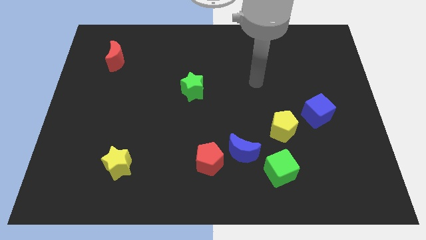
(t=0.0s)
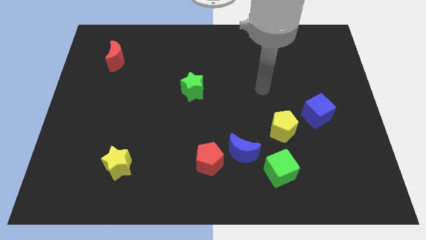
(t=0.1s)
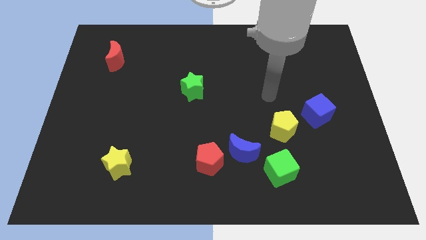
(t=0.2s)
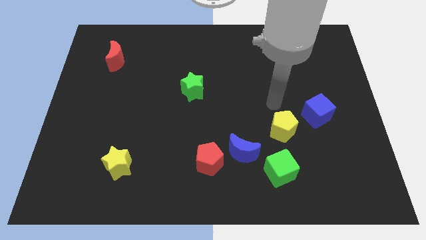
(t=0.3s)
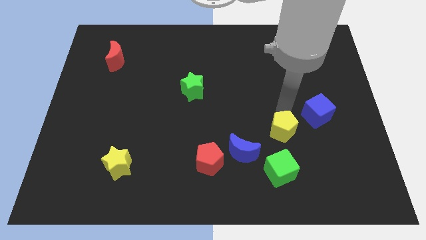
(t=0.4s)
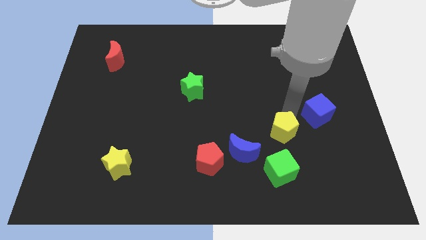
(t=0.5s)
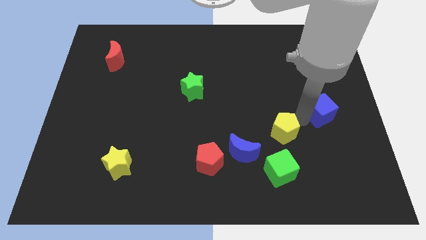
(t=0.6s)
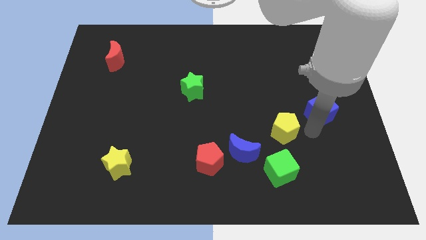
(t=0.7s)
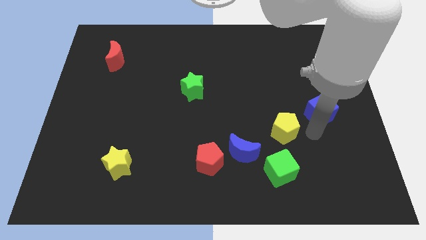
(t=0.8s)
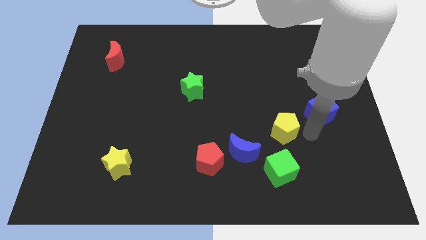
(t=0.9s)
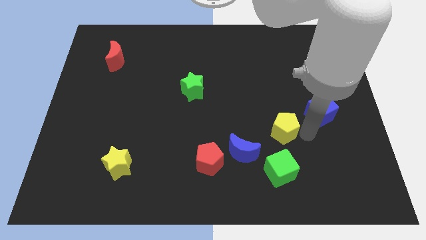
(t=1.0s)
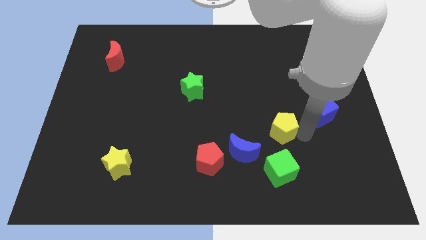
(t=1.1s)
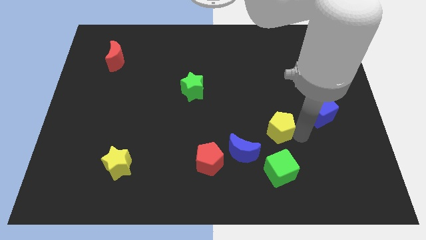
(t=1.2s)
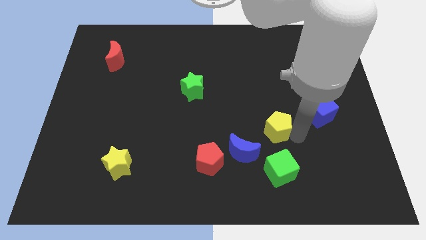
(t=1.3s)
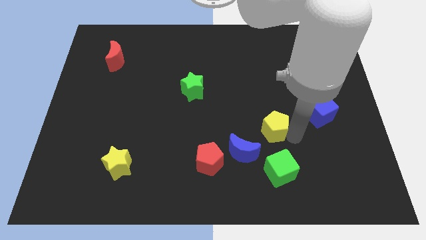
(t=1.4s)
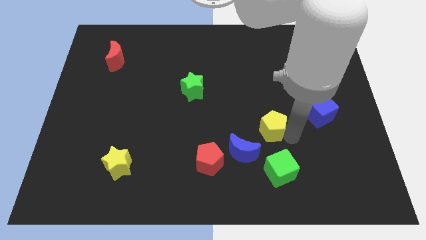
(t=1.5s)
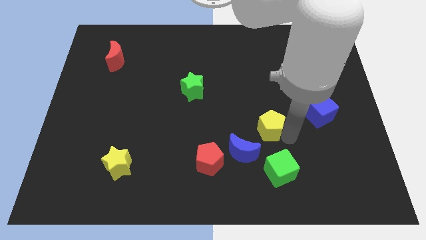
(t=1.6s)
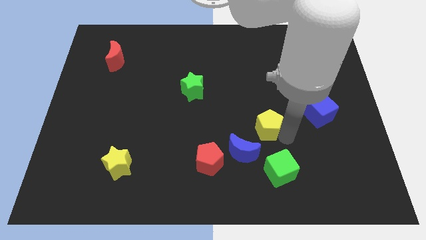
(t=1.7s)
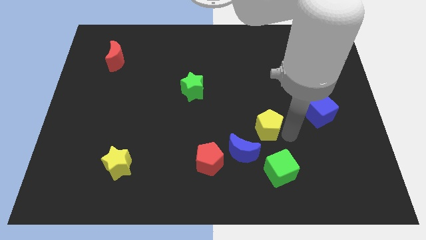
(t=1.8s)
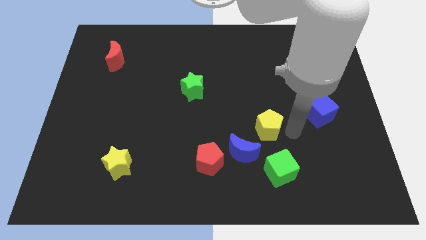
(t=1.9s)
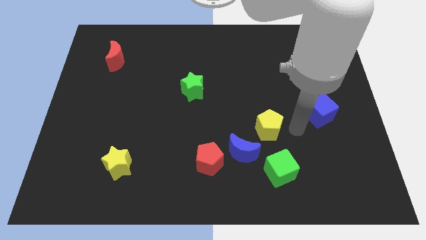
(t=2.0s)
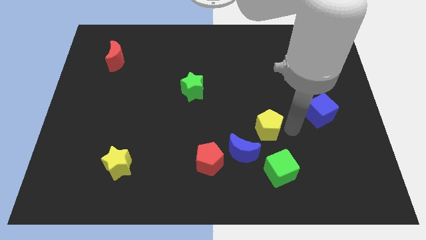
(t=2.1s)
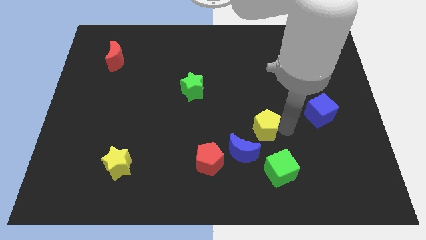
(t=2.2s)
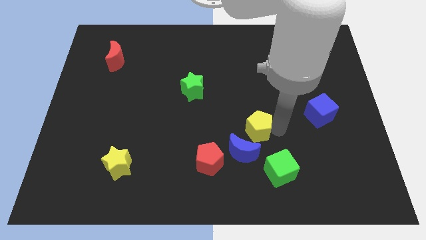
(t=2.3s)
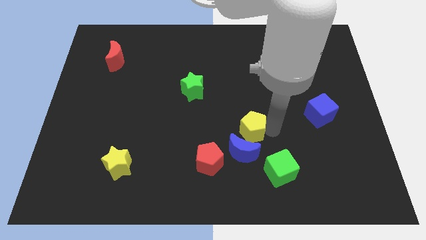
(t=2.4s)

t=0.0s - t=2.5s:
push the yellow pentagon slightly to the left

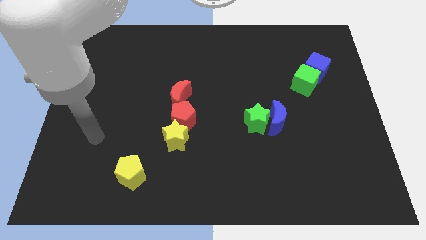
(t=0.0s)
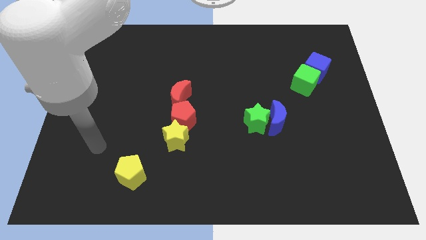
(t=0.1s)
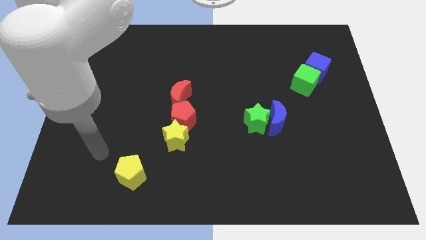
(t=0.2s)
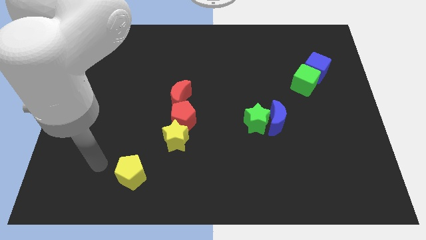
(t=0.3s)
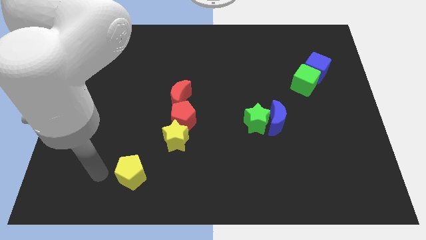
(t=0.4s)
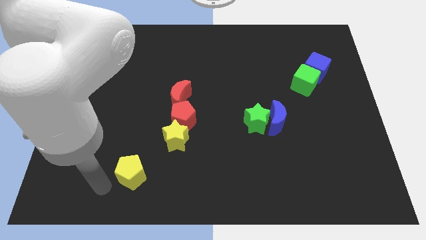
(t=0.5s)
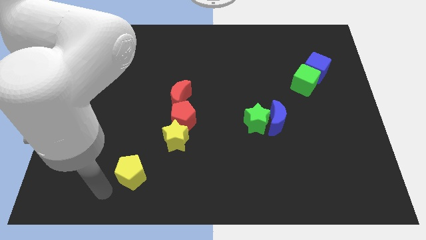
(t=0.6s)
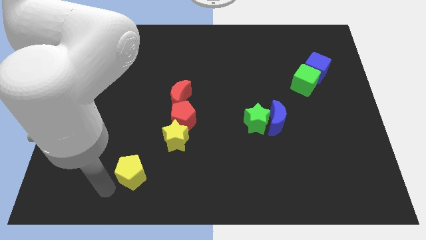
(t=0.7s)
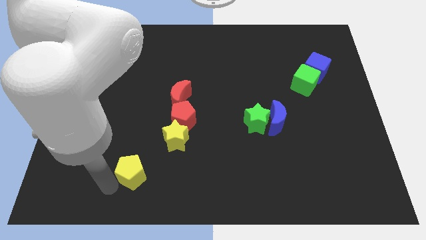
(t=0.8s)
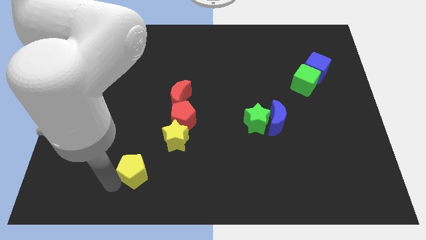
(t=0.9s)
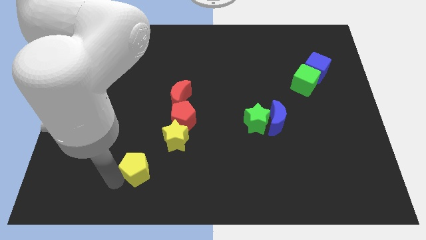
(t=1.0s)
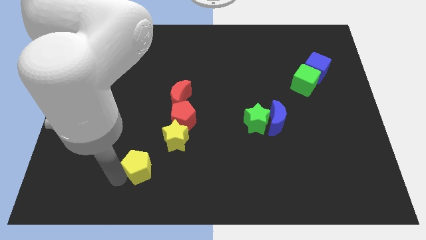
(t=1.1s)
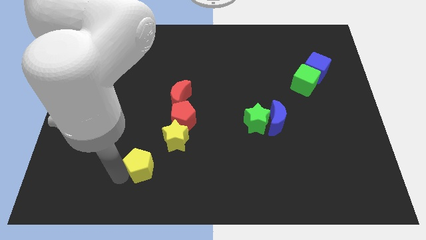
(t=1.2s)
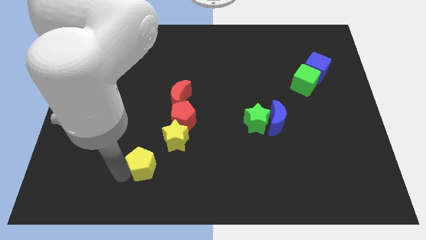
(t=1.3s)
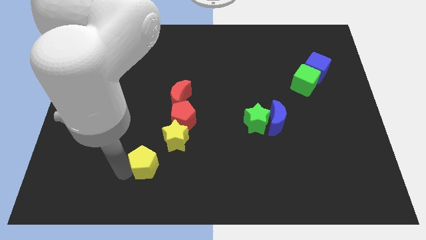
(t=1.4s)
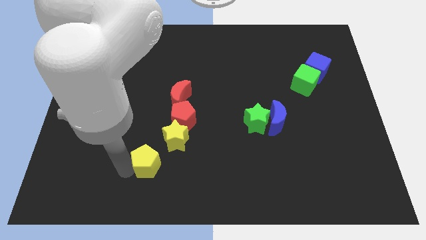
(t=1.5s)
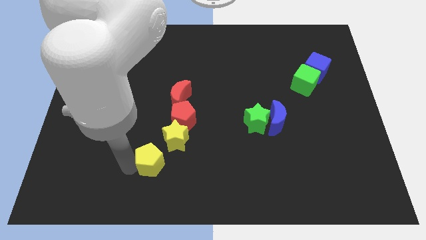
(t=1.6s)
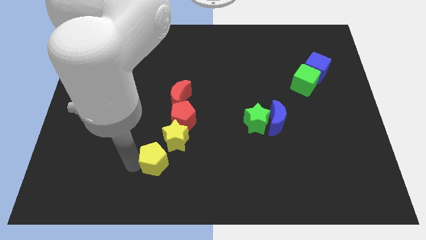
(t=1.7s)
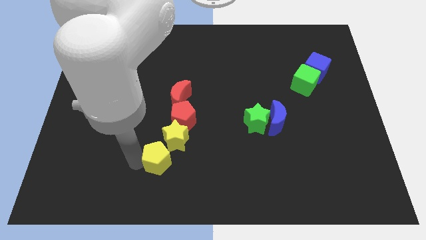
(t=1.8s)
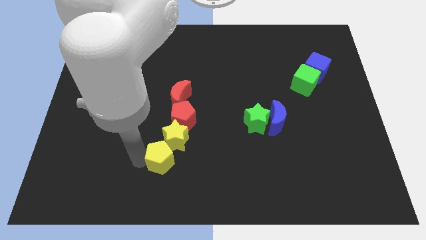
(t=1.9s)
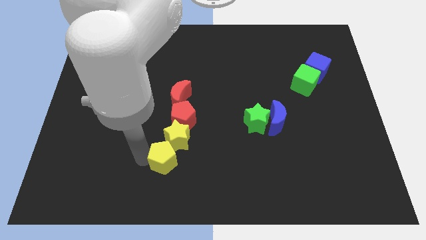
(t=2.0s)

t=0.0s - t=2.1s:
slide the yellow pentagon a bit upwards and right diagonally

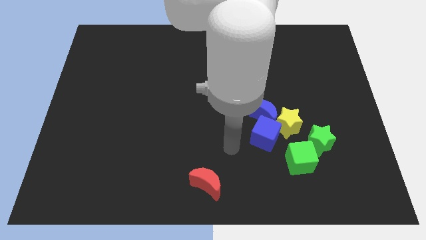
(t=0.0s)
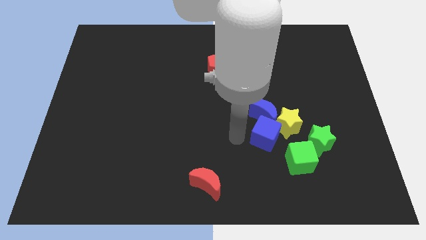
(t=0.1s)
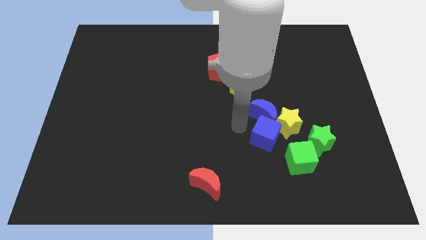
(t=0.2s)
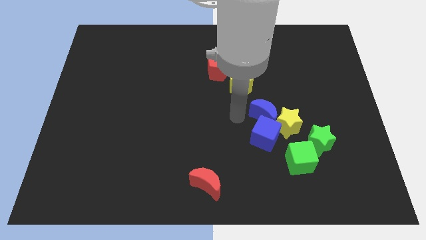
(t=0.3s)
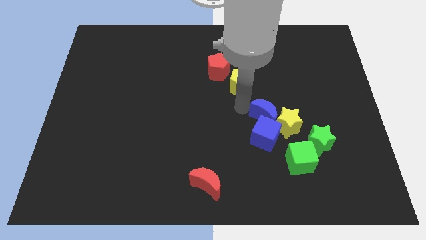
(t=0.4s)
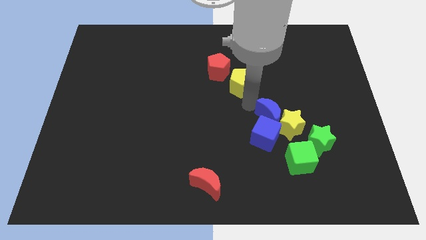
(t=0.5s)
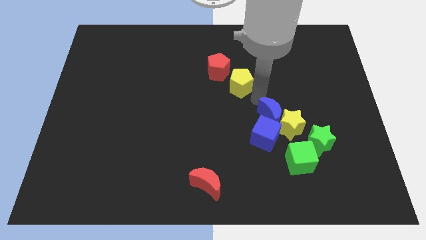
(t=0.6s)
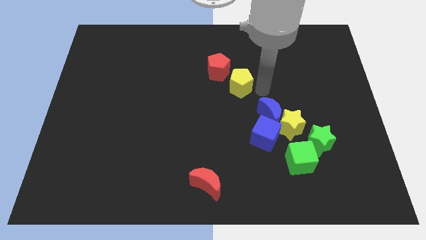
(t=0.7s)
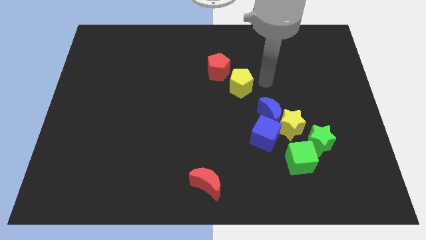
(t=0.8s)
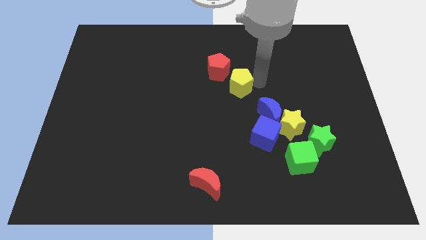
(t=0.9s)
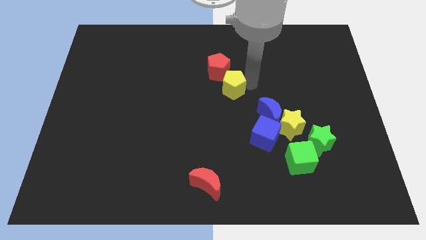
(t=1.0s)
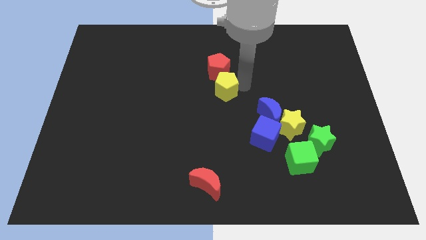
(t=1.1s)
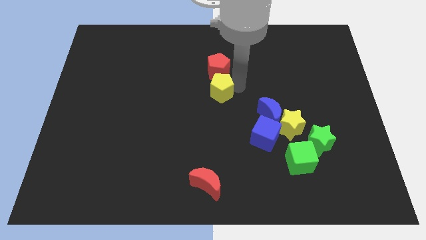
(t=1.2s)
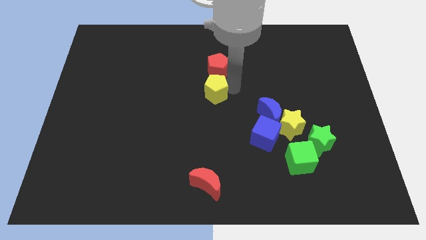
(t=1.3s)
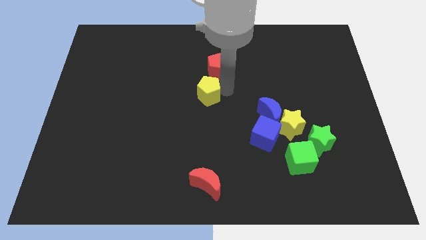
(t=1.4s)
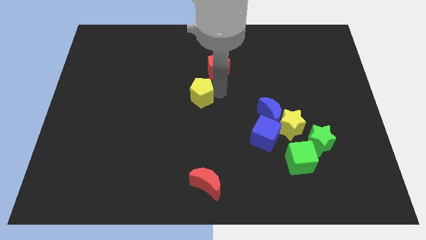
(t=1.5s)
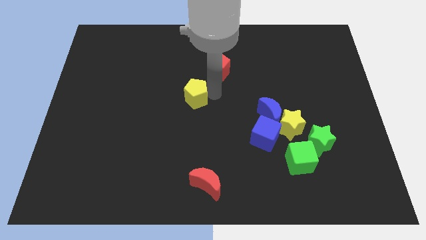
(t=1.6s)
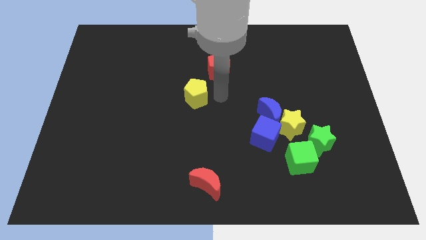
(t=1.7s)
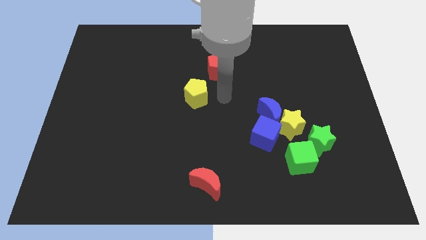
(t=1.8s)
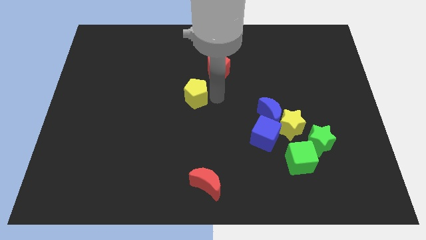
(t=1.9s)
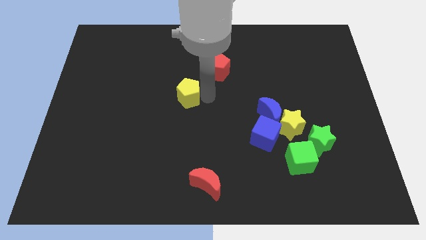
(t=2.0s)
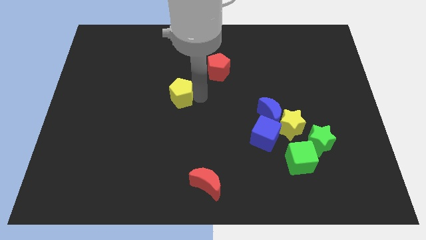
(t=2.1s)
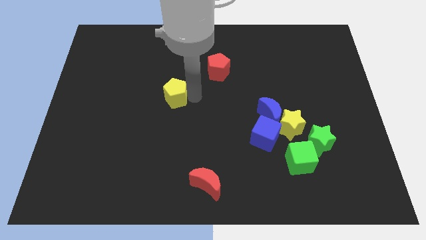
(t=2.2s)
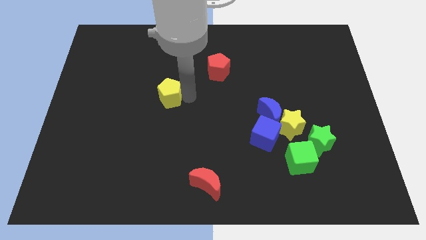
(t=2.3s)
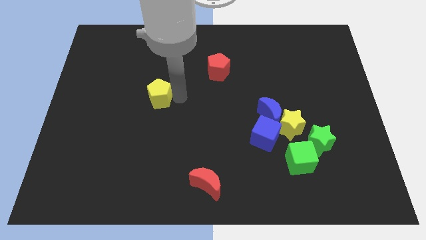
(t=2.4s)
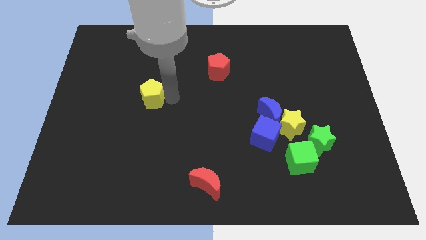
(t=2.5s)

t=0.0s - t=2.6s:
slide the yellow pentagon to the left

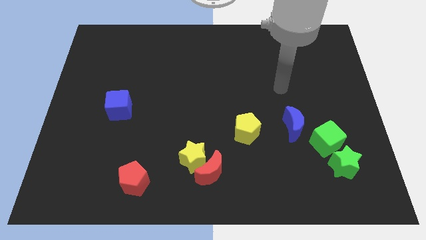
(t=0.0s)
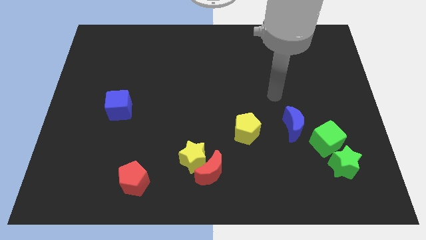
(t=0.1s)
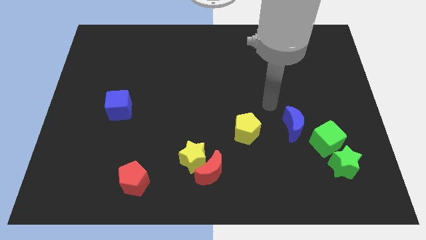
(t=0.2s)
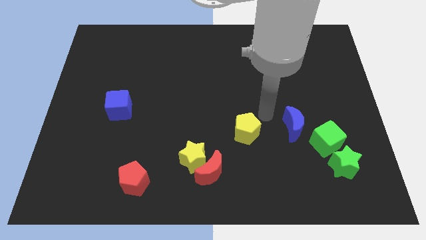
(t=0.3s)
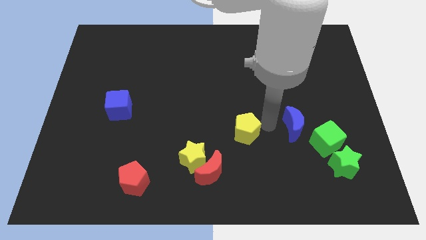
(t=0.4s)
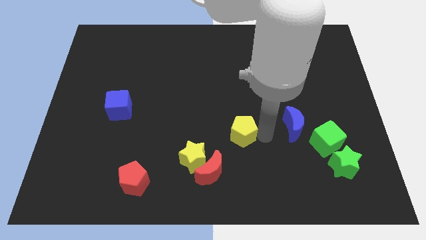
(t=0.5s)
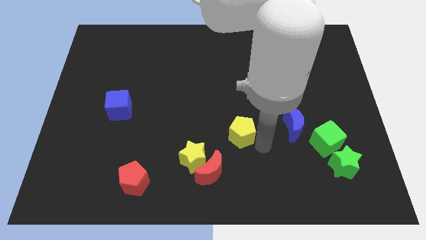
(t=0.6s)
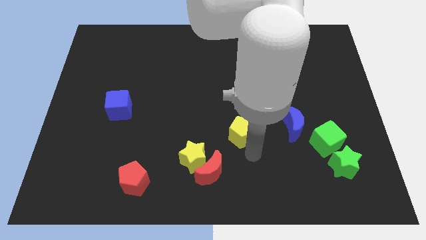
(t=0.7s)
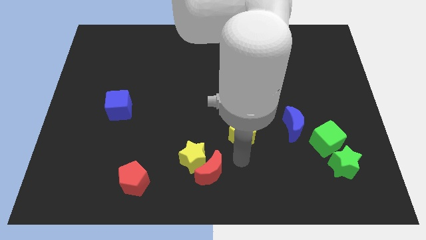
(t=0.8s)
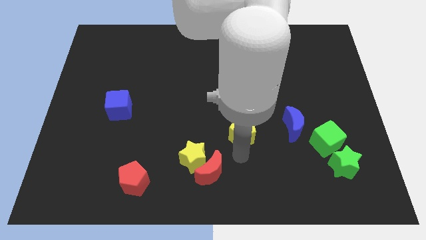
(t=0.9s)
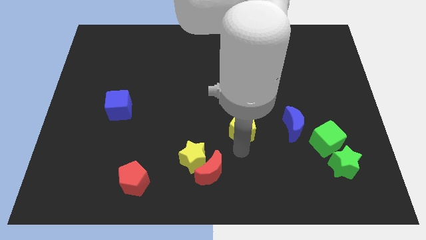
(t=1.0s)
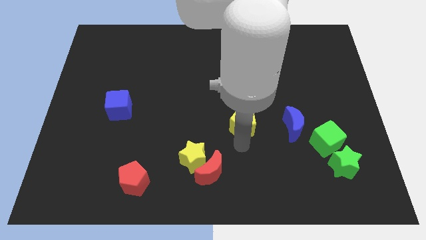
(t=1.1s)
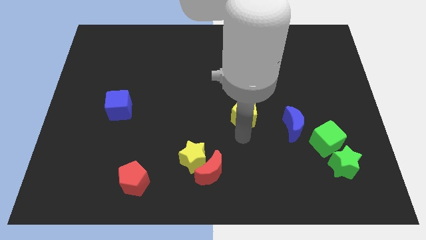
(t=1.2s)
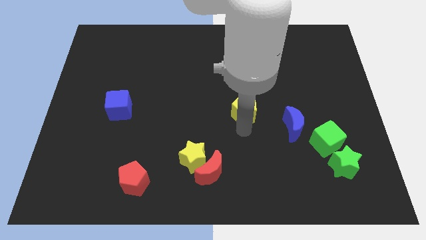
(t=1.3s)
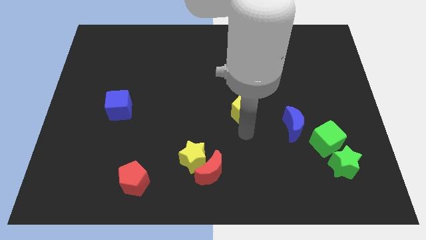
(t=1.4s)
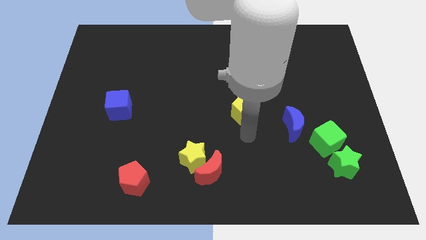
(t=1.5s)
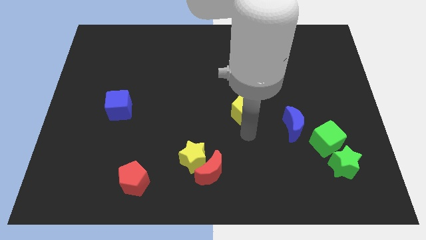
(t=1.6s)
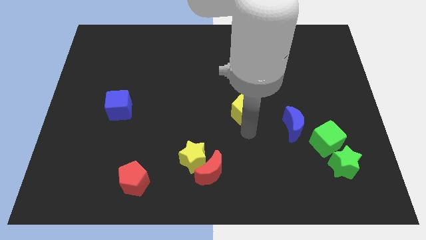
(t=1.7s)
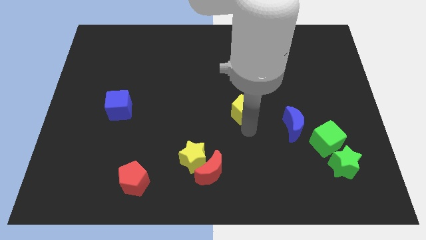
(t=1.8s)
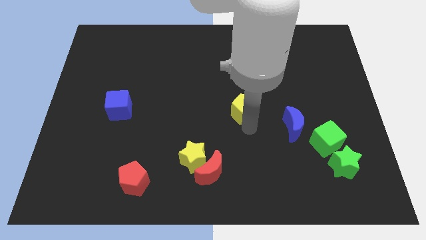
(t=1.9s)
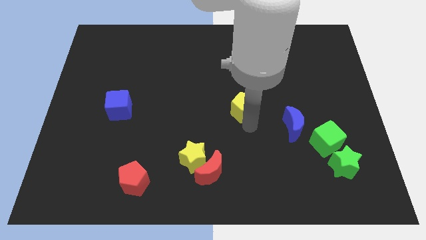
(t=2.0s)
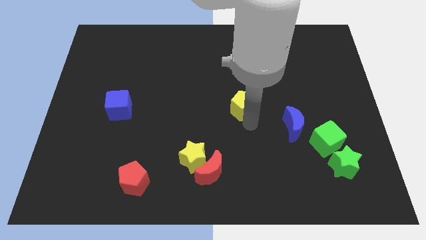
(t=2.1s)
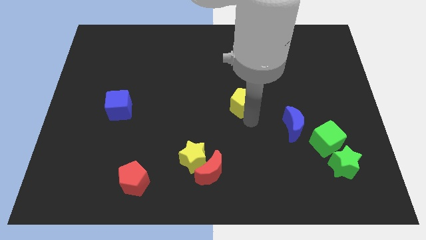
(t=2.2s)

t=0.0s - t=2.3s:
slightly move the yellow pentagon up
